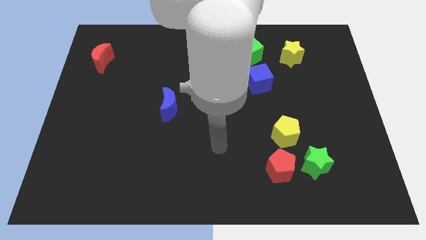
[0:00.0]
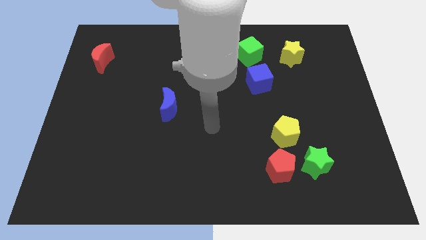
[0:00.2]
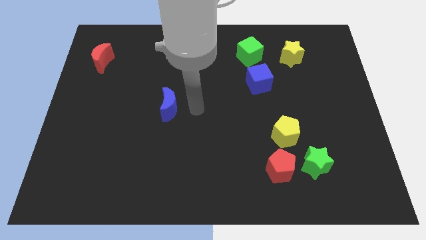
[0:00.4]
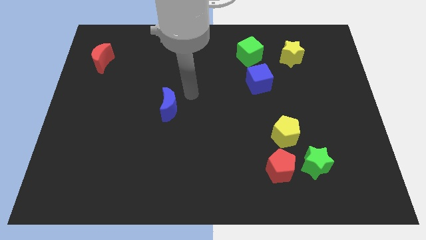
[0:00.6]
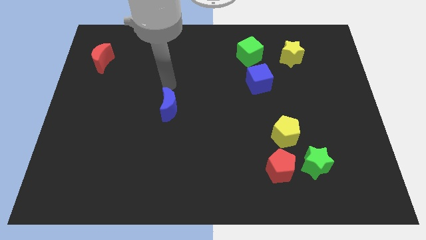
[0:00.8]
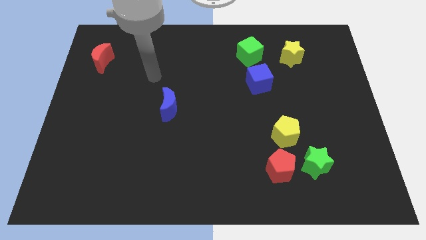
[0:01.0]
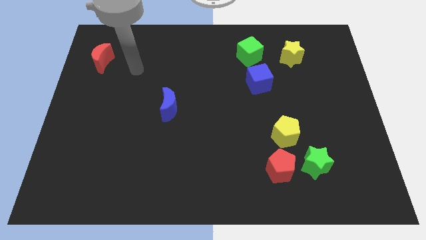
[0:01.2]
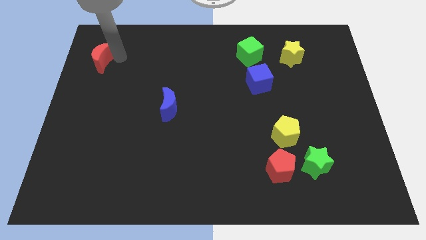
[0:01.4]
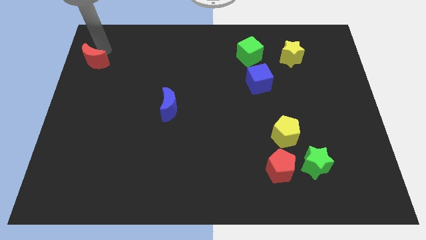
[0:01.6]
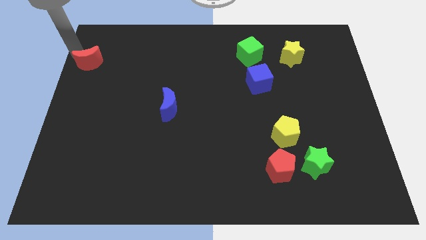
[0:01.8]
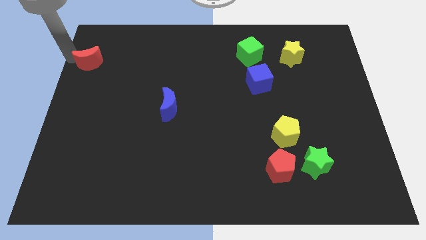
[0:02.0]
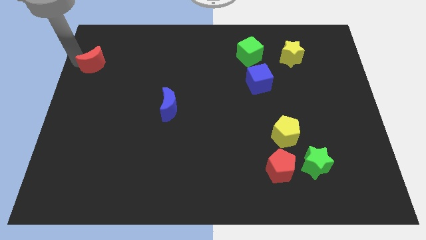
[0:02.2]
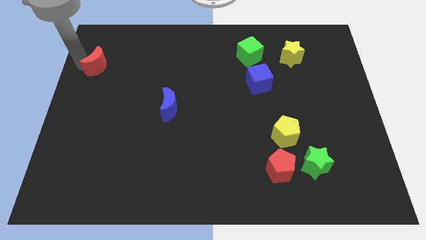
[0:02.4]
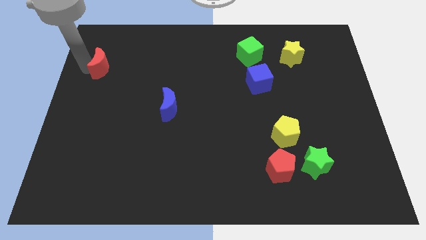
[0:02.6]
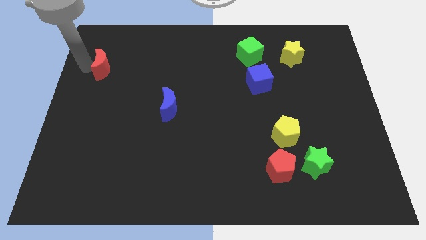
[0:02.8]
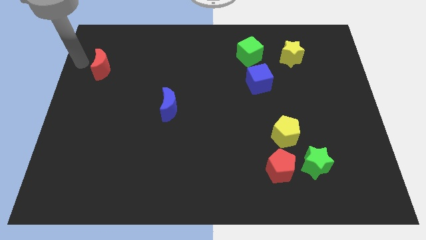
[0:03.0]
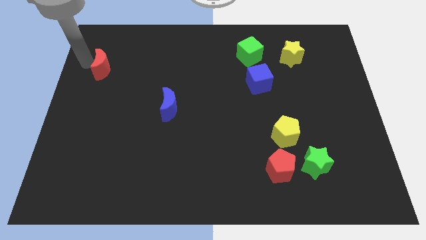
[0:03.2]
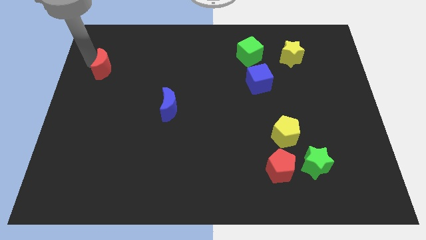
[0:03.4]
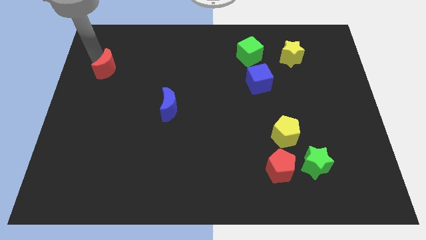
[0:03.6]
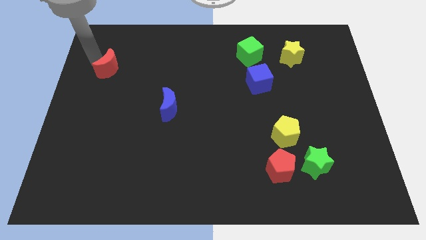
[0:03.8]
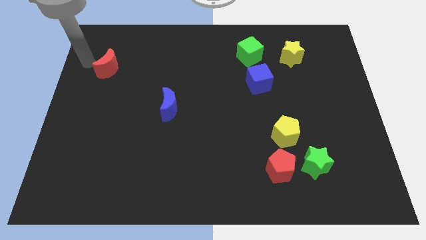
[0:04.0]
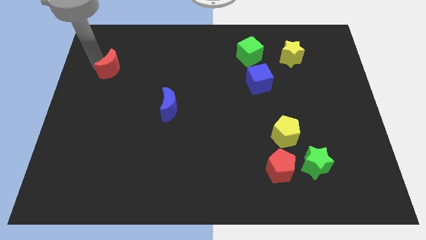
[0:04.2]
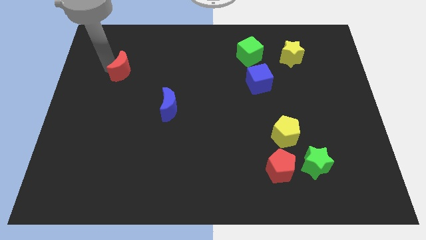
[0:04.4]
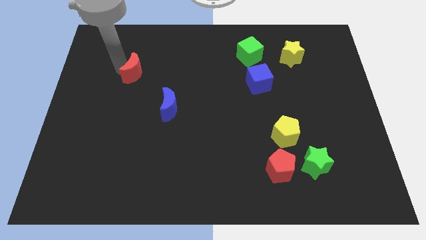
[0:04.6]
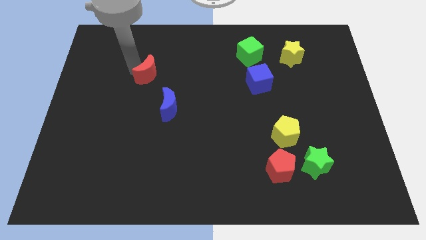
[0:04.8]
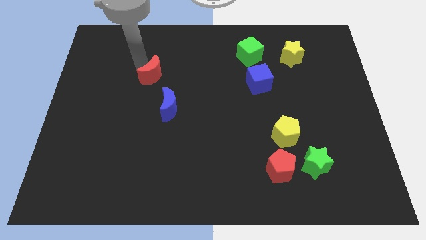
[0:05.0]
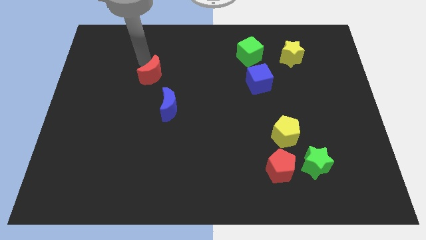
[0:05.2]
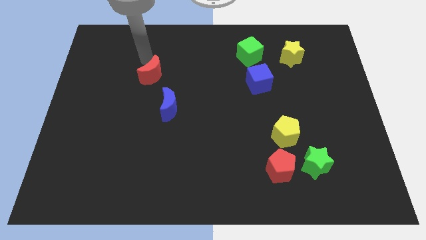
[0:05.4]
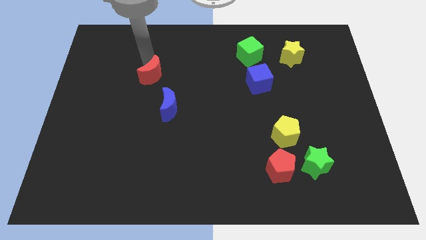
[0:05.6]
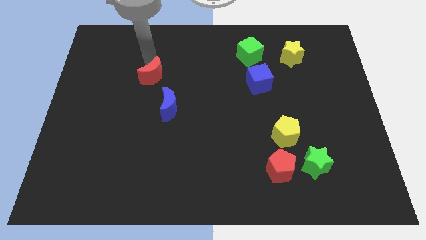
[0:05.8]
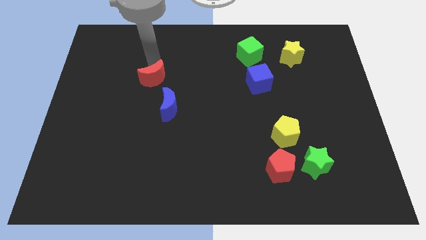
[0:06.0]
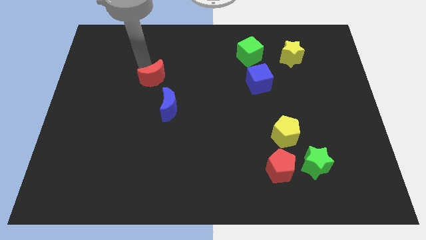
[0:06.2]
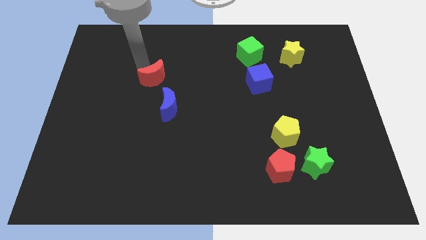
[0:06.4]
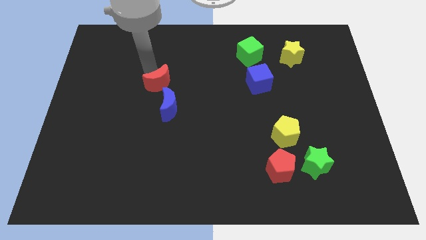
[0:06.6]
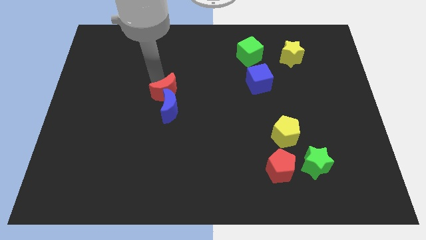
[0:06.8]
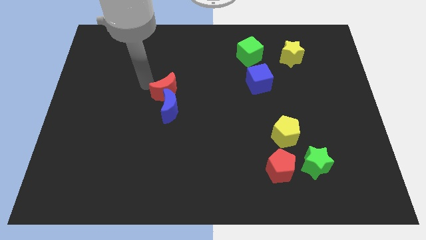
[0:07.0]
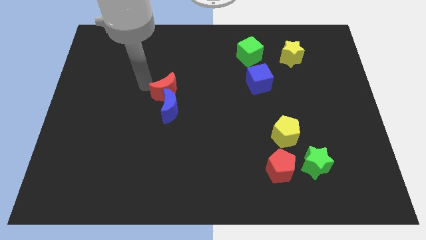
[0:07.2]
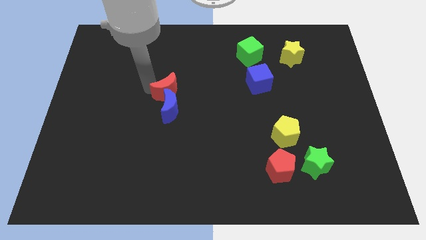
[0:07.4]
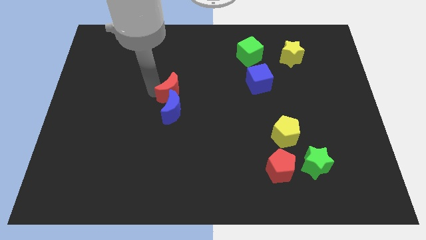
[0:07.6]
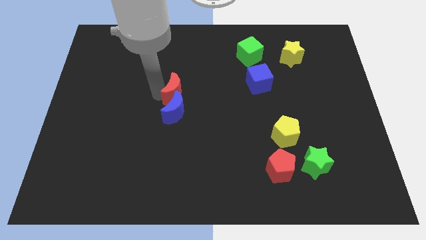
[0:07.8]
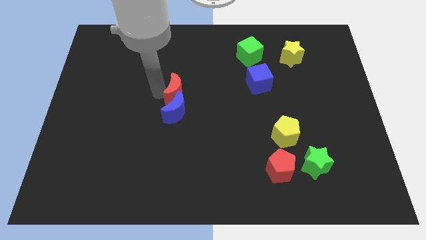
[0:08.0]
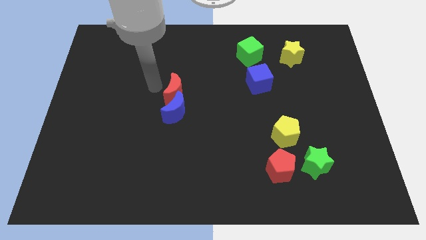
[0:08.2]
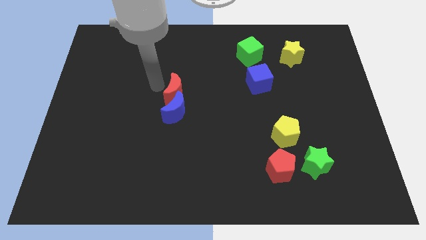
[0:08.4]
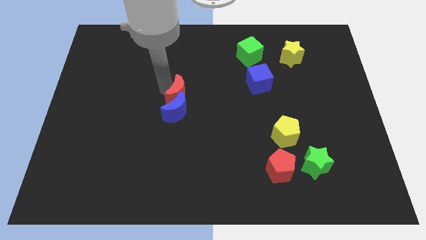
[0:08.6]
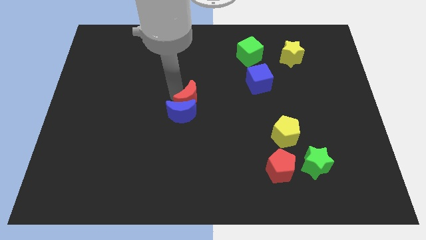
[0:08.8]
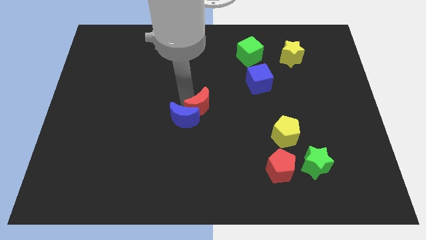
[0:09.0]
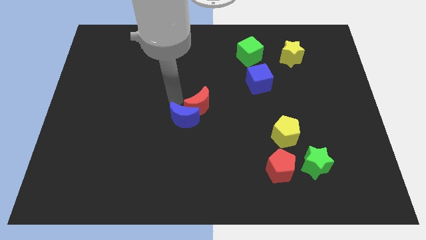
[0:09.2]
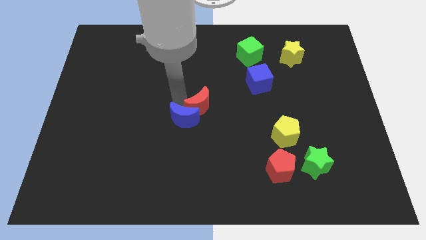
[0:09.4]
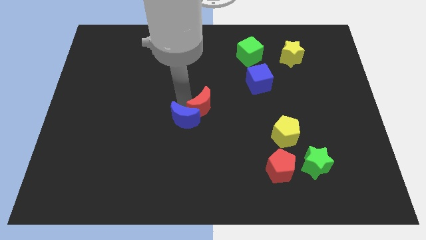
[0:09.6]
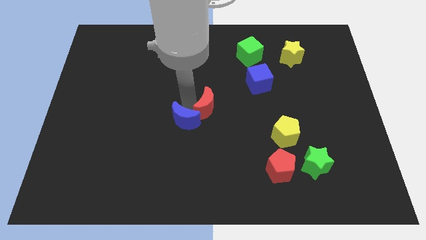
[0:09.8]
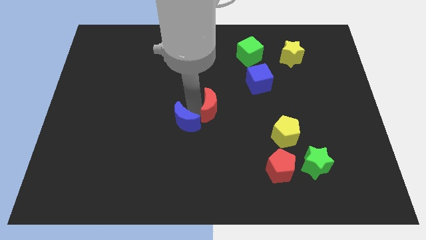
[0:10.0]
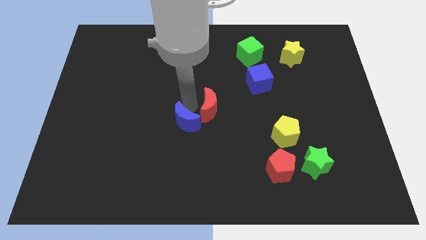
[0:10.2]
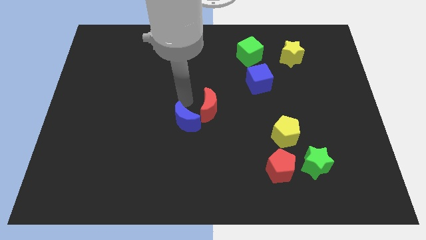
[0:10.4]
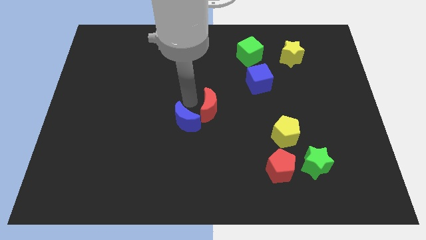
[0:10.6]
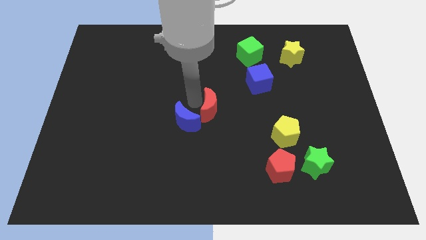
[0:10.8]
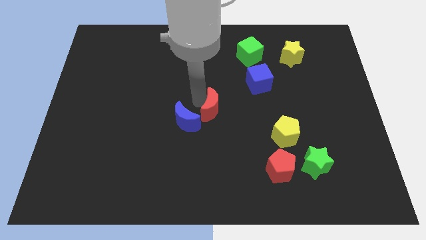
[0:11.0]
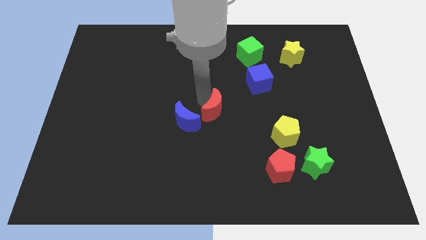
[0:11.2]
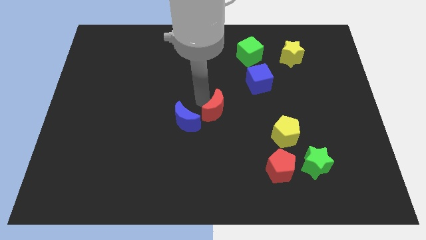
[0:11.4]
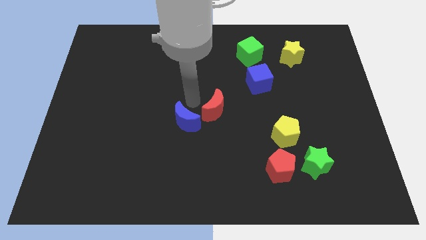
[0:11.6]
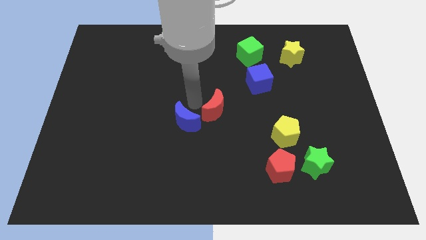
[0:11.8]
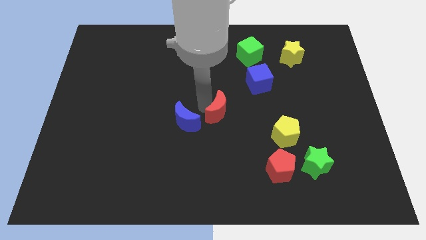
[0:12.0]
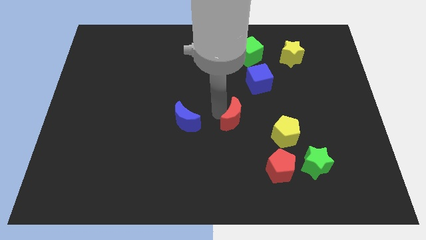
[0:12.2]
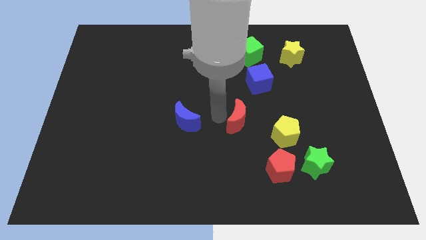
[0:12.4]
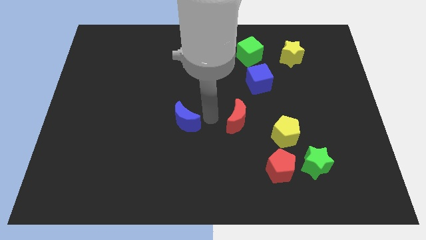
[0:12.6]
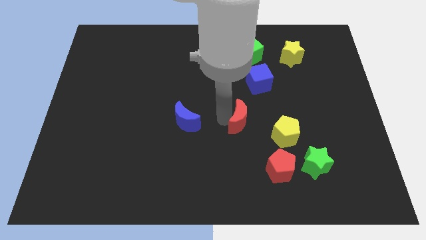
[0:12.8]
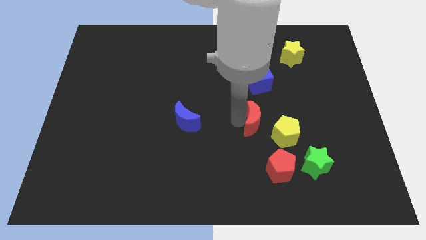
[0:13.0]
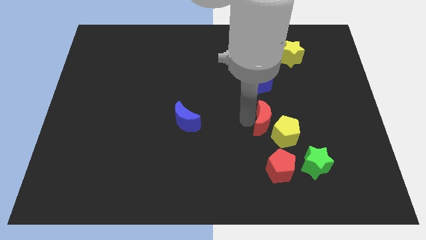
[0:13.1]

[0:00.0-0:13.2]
push the red moon next to the yellow pentagon
